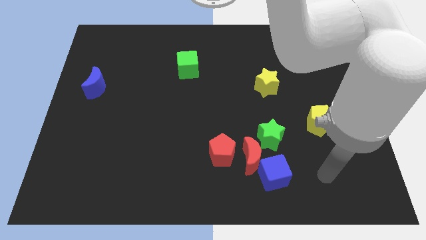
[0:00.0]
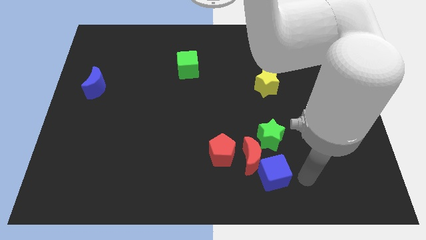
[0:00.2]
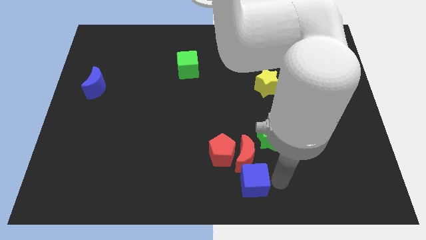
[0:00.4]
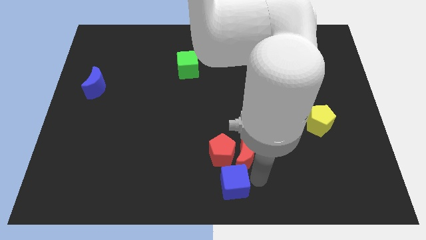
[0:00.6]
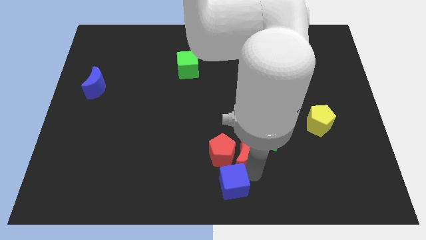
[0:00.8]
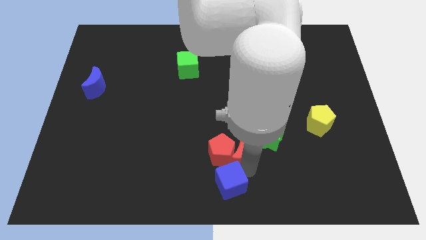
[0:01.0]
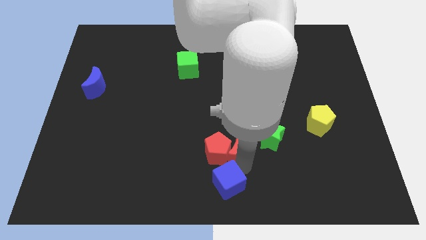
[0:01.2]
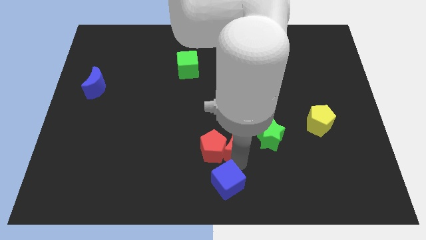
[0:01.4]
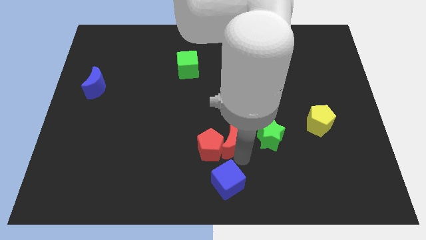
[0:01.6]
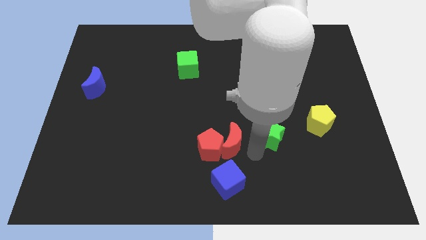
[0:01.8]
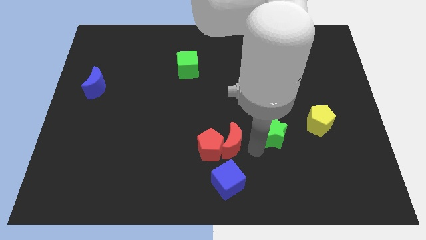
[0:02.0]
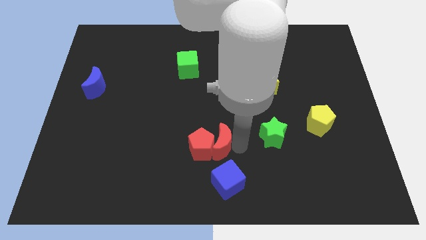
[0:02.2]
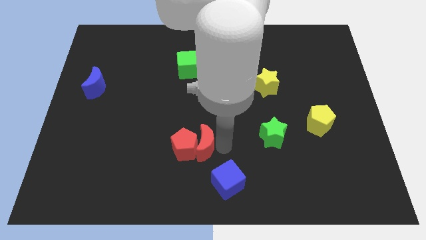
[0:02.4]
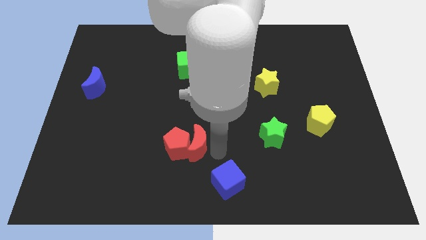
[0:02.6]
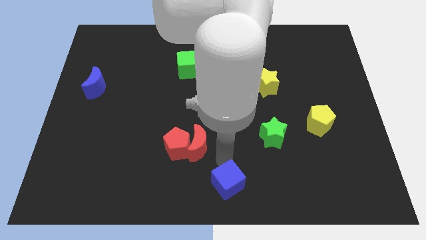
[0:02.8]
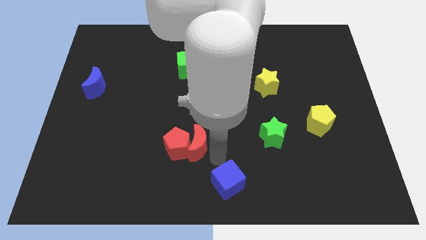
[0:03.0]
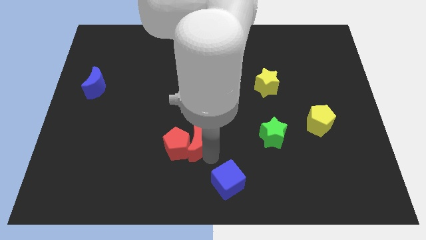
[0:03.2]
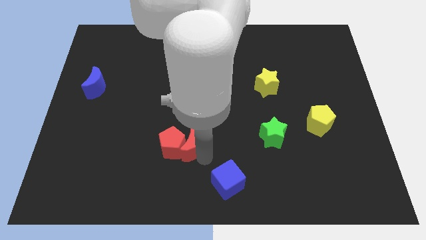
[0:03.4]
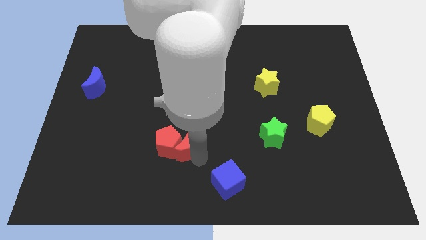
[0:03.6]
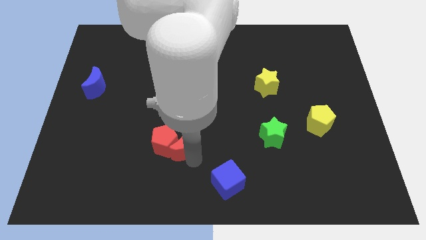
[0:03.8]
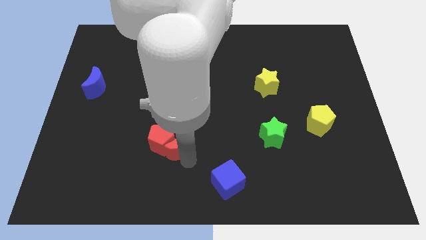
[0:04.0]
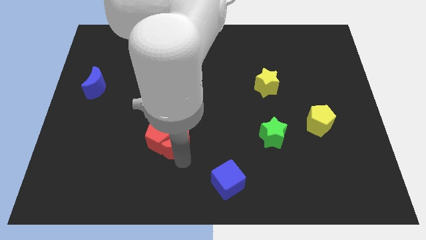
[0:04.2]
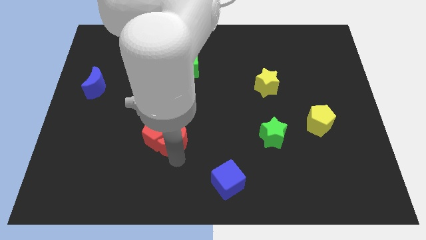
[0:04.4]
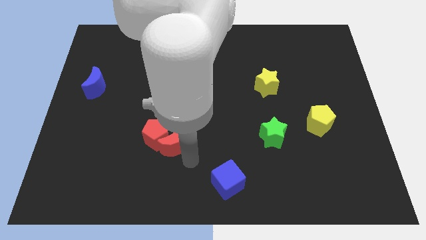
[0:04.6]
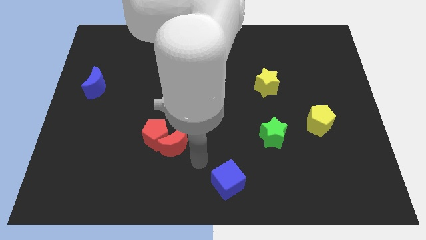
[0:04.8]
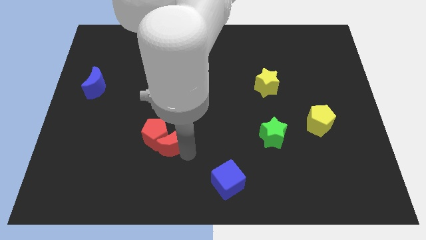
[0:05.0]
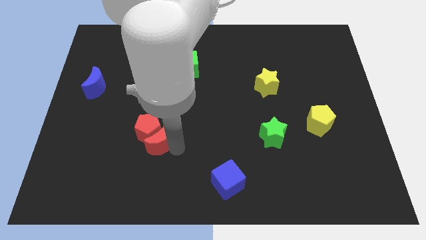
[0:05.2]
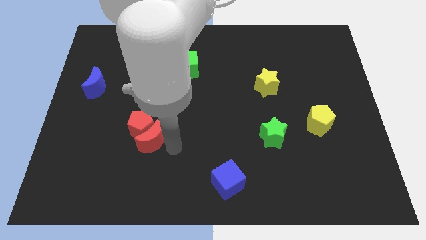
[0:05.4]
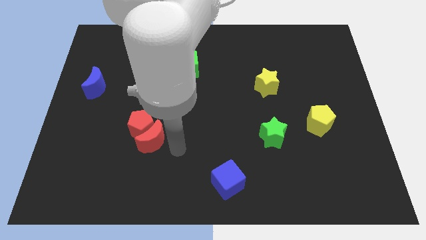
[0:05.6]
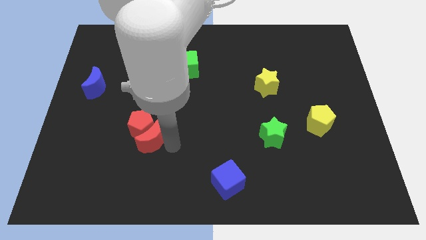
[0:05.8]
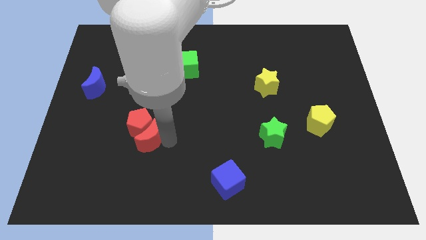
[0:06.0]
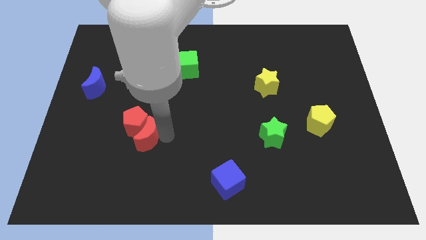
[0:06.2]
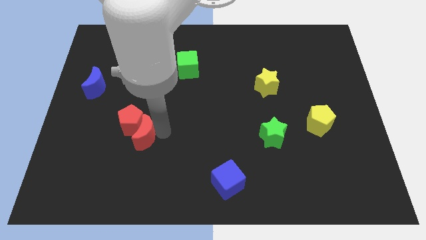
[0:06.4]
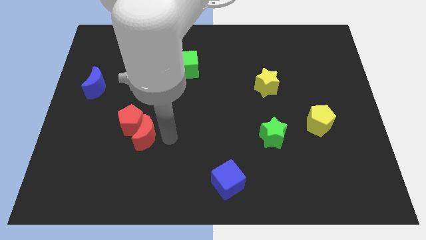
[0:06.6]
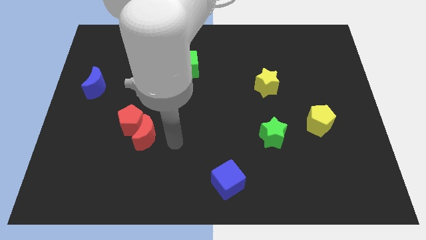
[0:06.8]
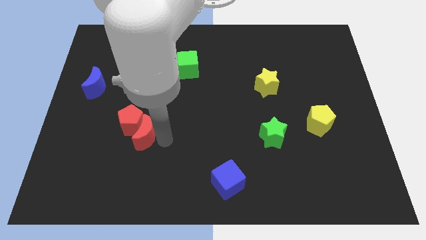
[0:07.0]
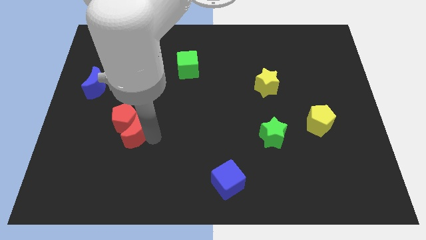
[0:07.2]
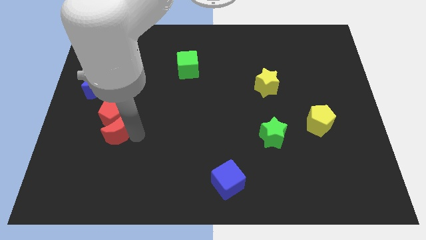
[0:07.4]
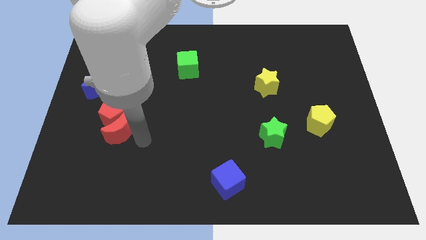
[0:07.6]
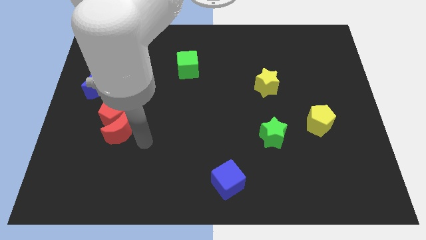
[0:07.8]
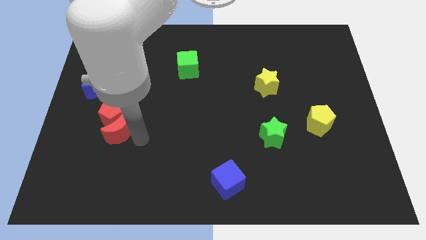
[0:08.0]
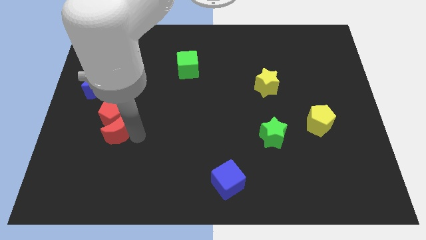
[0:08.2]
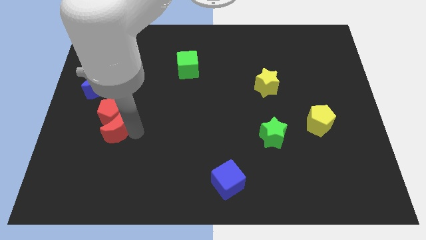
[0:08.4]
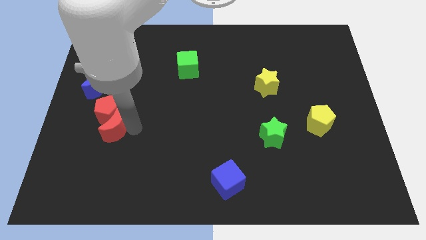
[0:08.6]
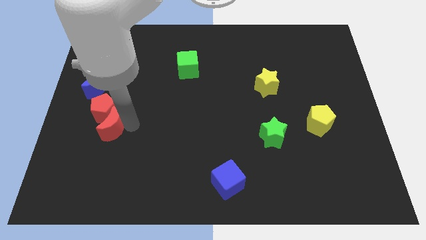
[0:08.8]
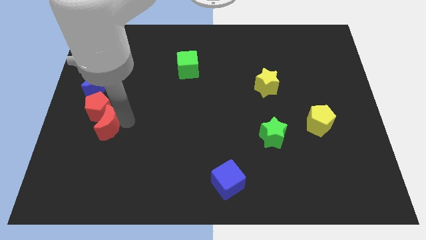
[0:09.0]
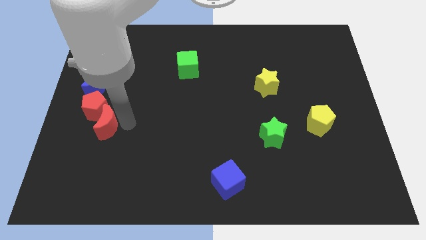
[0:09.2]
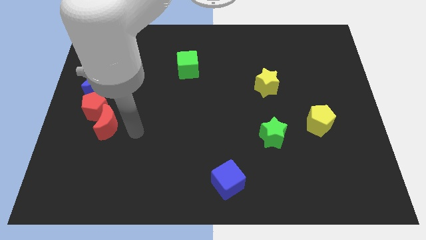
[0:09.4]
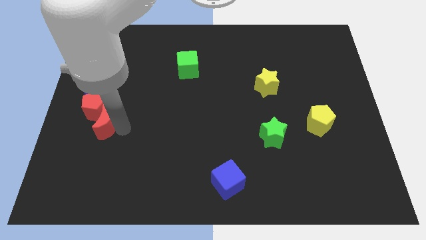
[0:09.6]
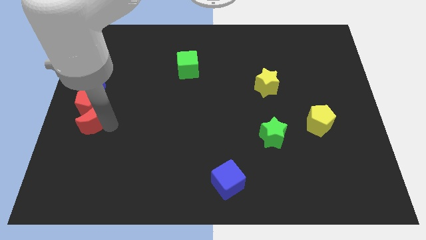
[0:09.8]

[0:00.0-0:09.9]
slide the red moon to the center left

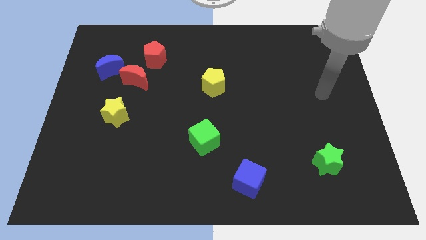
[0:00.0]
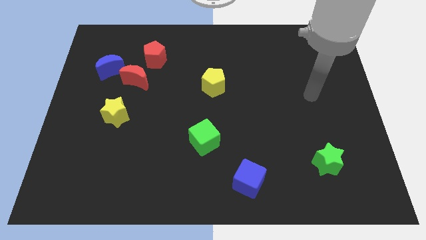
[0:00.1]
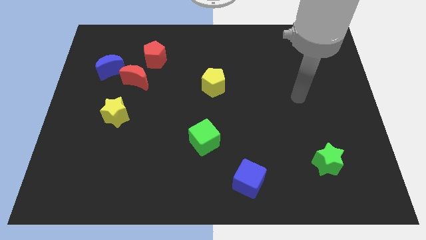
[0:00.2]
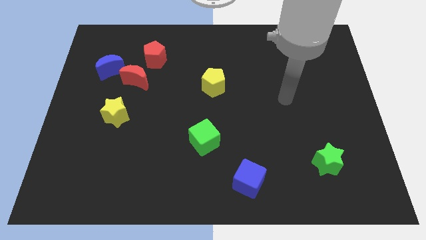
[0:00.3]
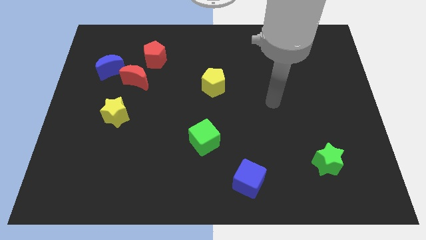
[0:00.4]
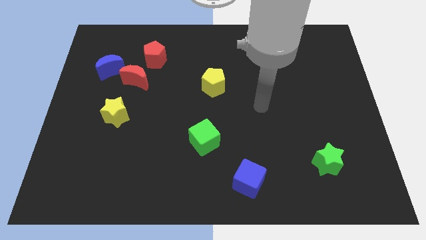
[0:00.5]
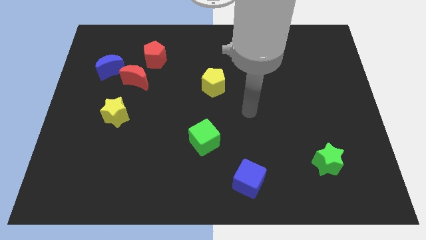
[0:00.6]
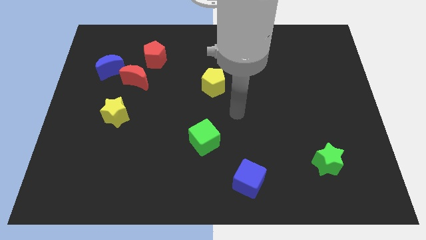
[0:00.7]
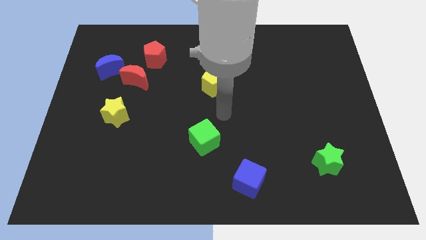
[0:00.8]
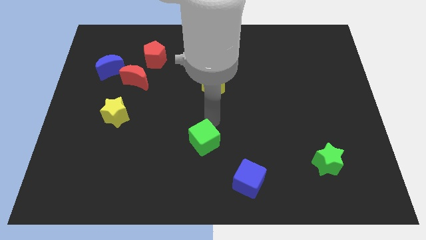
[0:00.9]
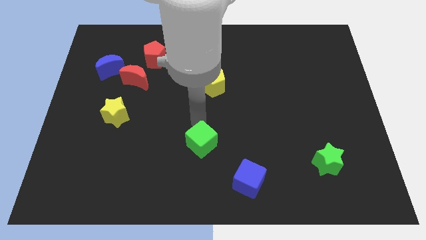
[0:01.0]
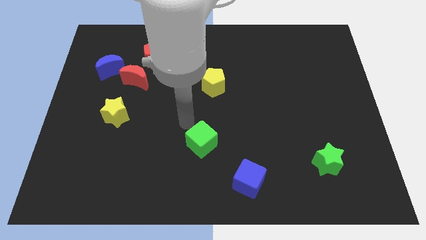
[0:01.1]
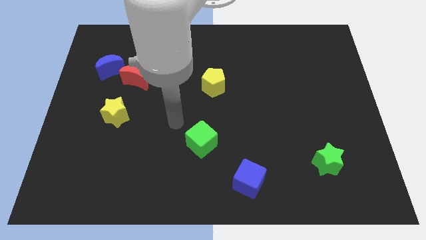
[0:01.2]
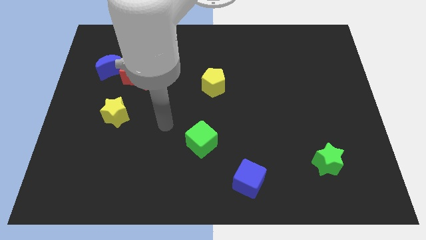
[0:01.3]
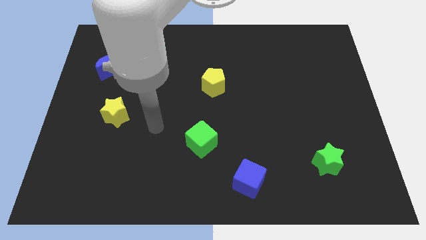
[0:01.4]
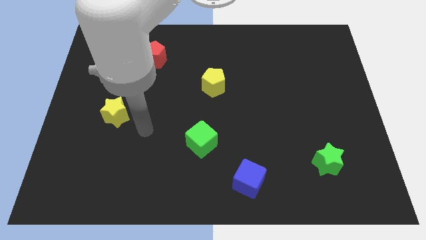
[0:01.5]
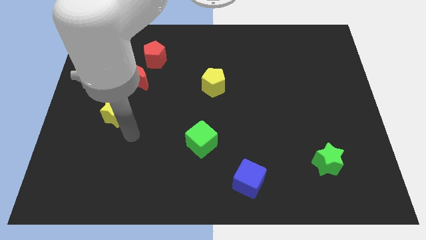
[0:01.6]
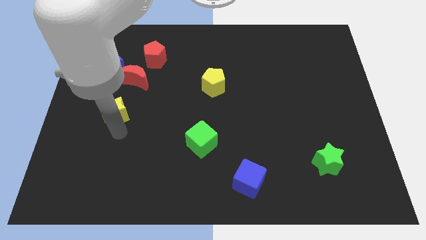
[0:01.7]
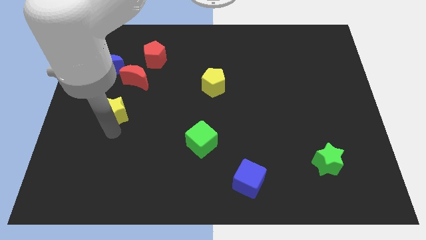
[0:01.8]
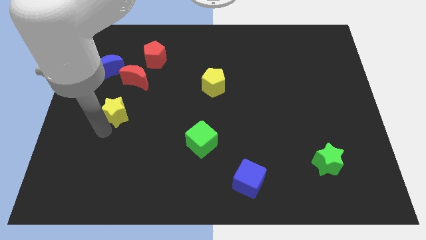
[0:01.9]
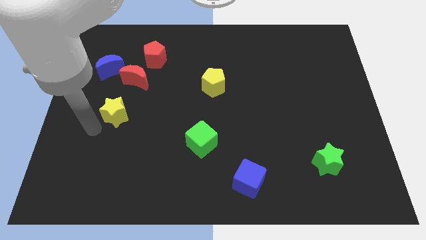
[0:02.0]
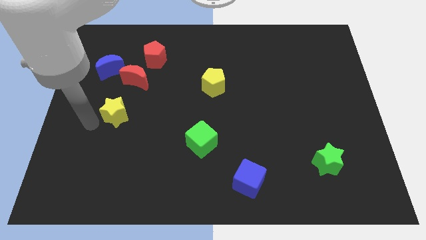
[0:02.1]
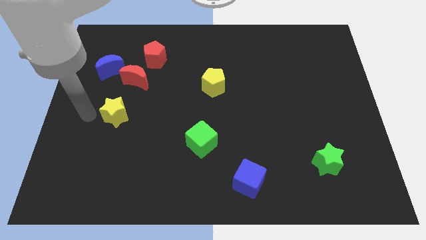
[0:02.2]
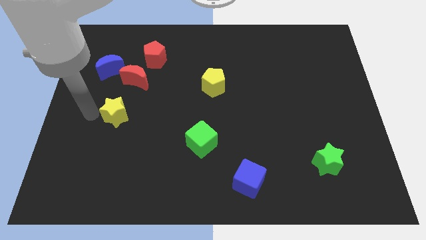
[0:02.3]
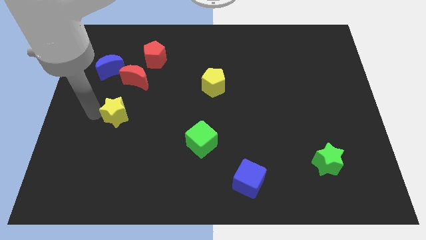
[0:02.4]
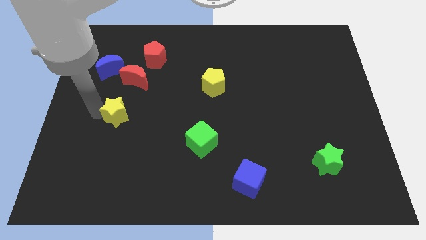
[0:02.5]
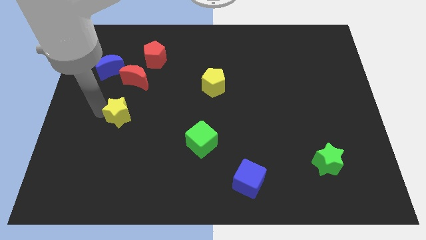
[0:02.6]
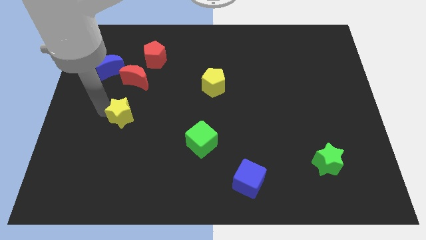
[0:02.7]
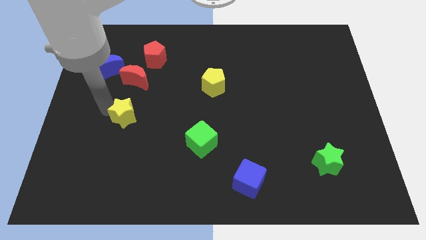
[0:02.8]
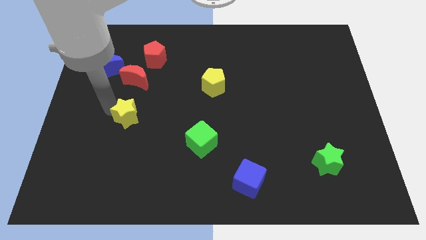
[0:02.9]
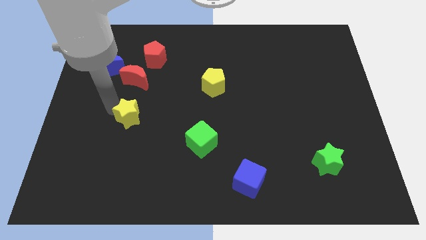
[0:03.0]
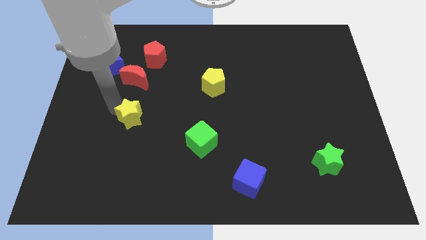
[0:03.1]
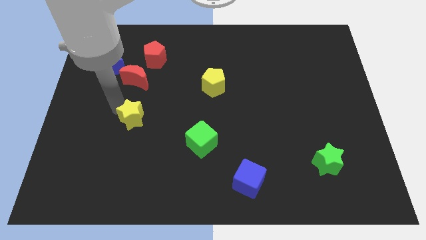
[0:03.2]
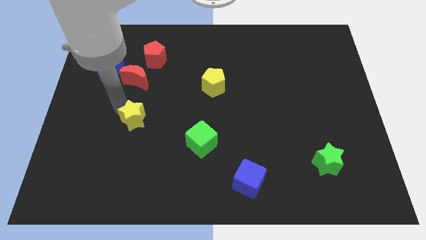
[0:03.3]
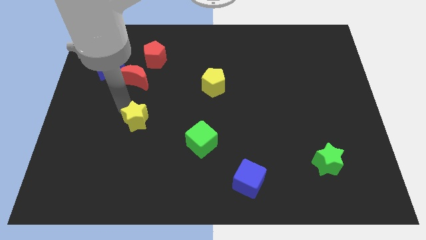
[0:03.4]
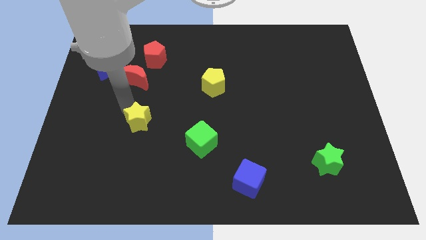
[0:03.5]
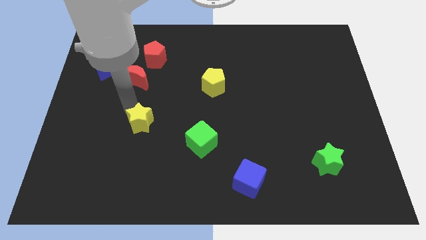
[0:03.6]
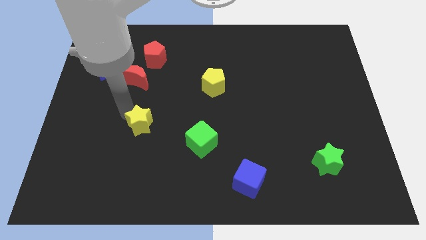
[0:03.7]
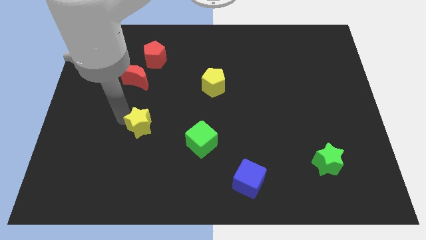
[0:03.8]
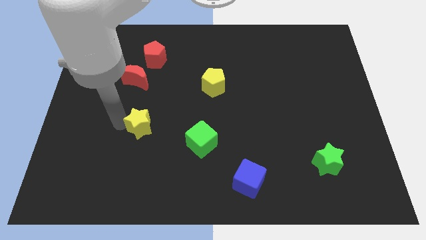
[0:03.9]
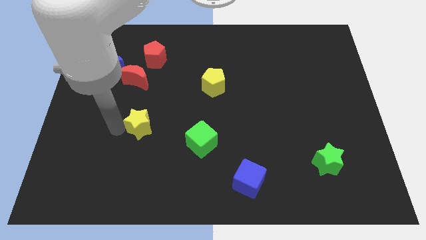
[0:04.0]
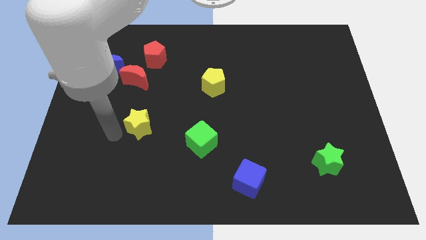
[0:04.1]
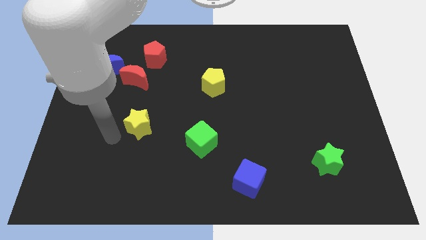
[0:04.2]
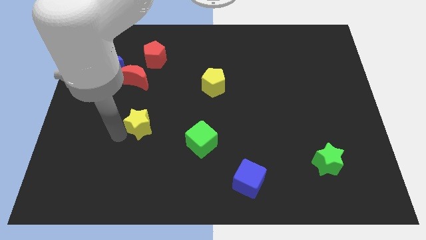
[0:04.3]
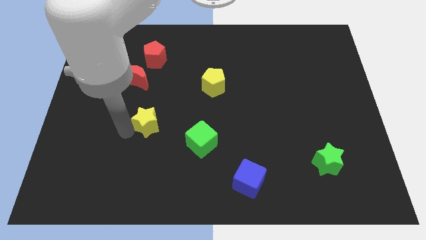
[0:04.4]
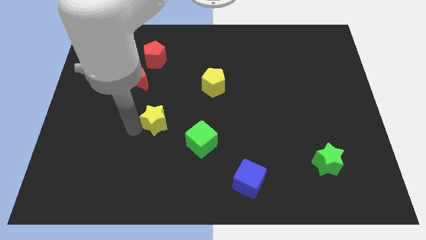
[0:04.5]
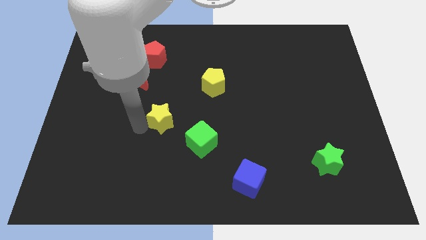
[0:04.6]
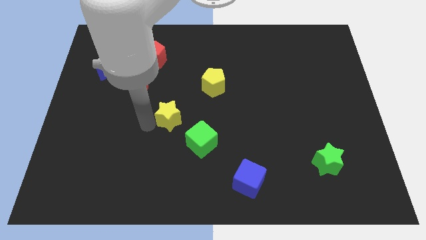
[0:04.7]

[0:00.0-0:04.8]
push the yellow star to the middle
